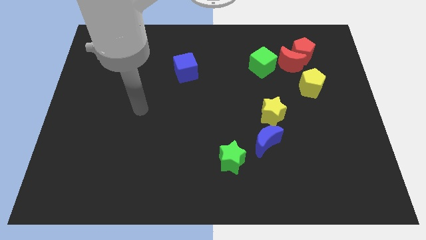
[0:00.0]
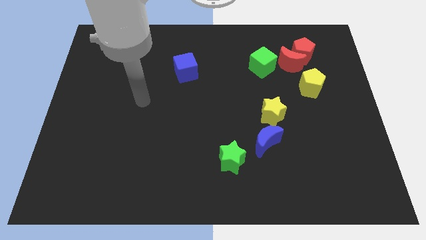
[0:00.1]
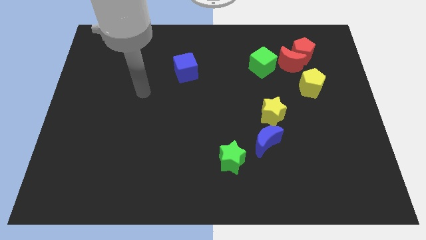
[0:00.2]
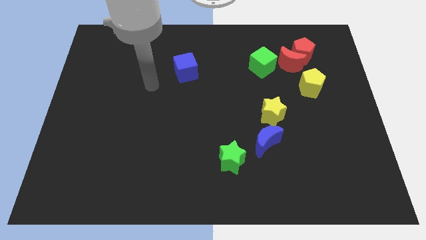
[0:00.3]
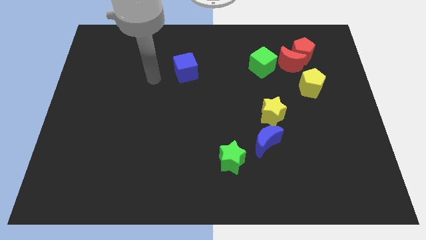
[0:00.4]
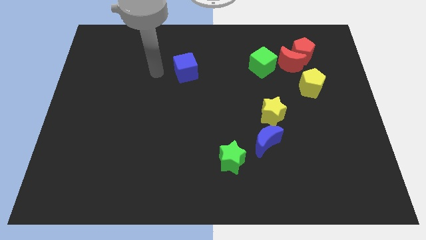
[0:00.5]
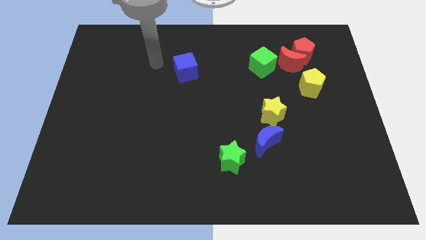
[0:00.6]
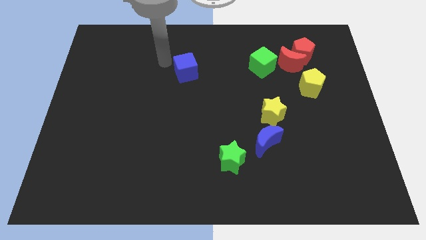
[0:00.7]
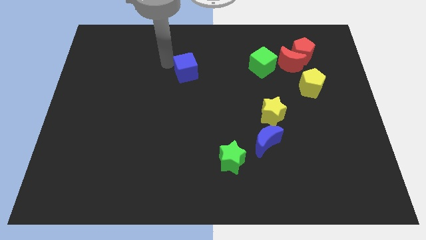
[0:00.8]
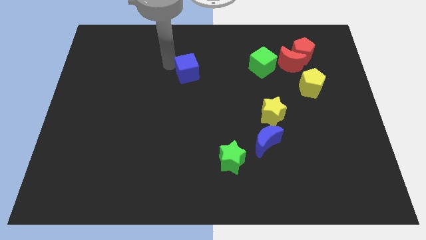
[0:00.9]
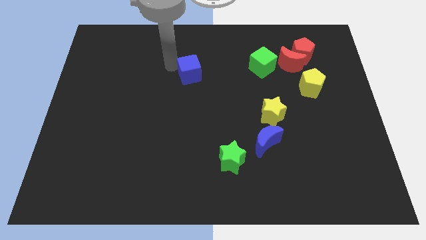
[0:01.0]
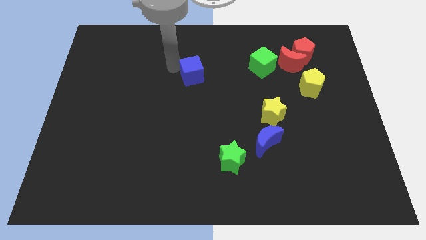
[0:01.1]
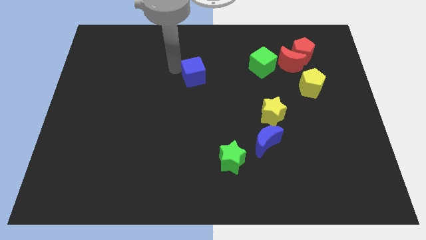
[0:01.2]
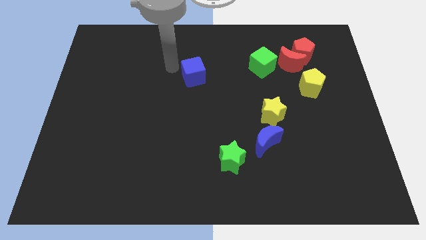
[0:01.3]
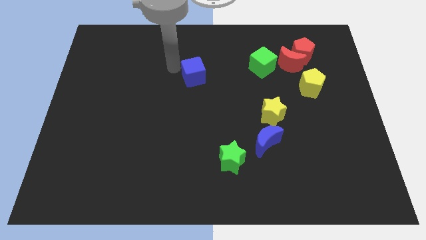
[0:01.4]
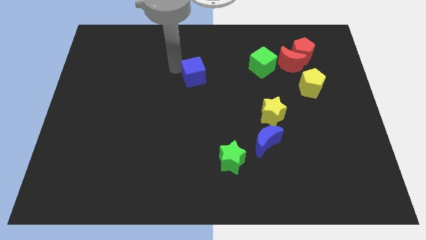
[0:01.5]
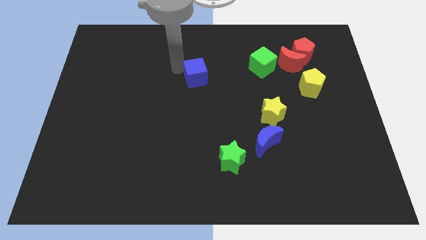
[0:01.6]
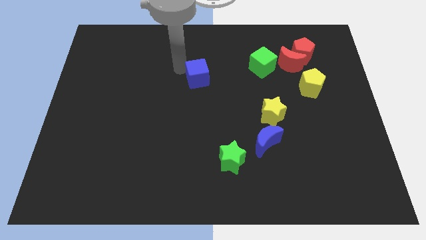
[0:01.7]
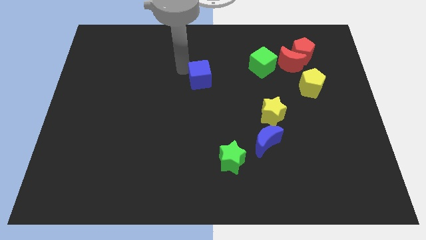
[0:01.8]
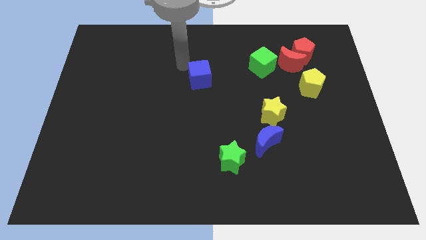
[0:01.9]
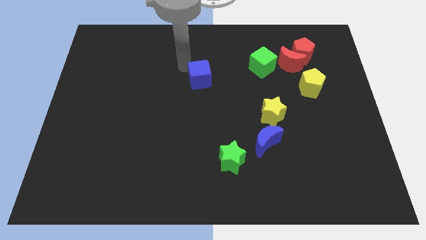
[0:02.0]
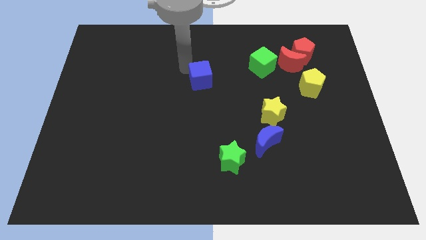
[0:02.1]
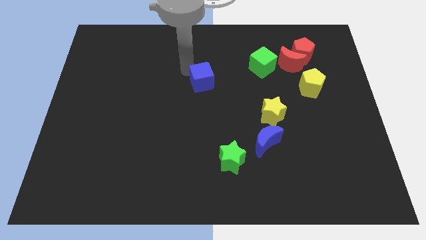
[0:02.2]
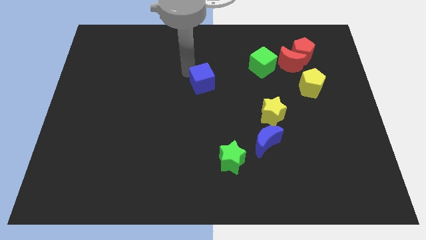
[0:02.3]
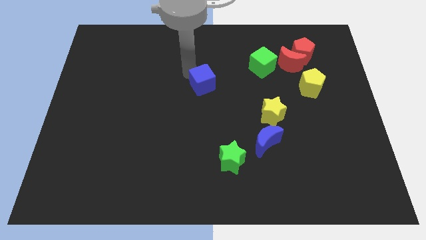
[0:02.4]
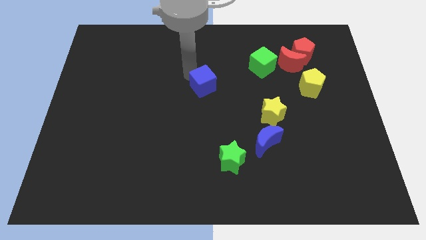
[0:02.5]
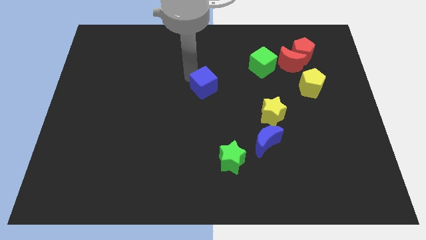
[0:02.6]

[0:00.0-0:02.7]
push the blue cube a little diagonally down and right

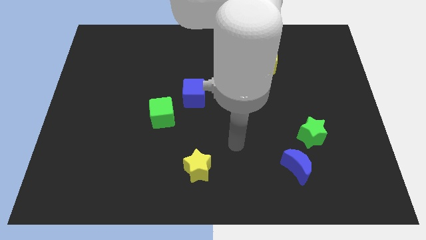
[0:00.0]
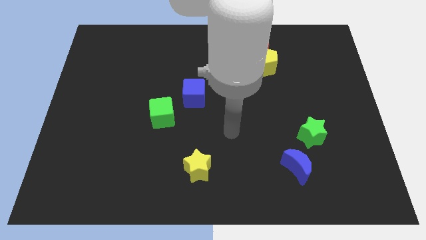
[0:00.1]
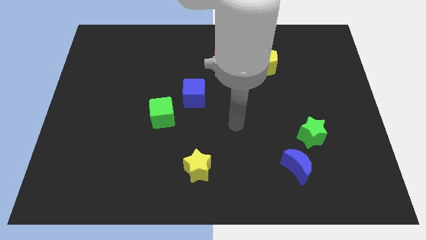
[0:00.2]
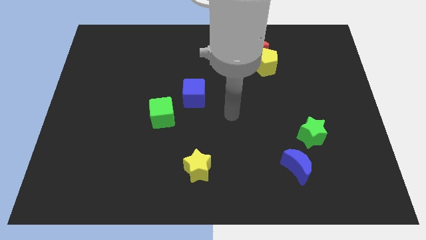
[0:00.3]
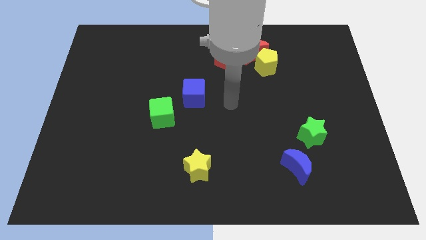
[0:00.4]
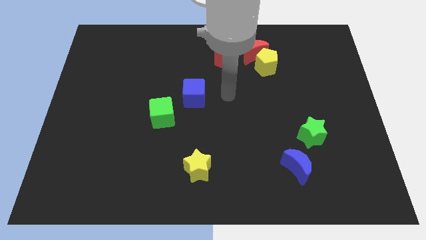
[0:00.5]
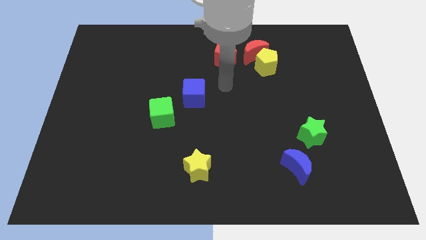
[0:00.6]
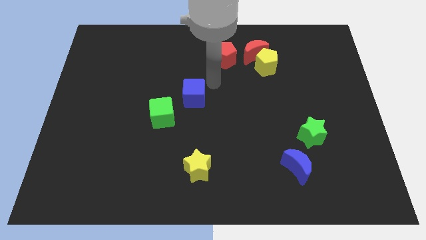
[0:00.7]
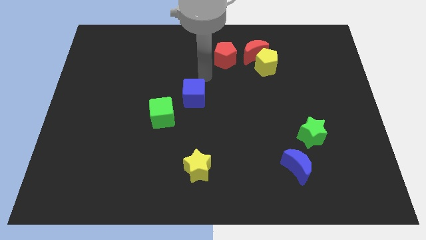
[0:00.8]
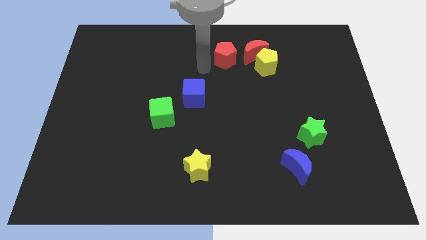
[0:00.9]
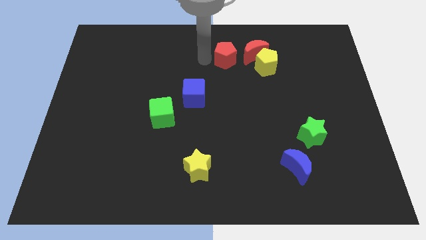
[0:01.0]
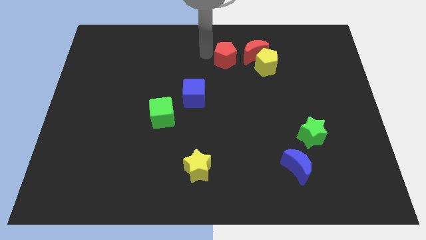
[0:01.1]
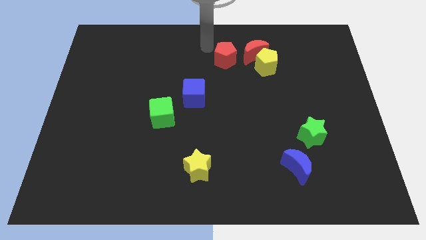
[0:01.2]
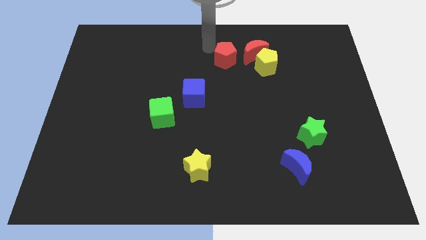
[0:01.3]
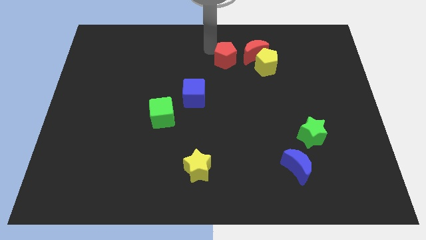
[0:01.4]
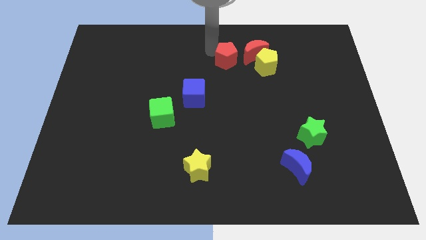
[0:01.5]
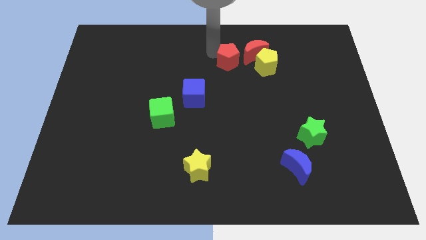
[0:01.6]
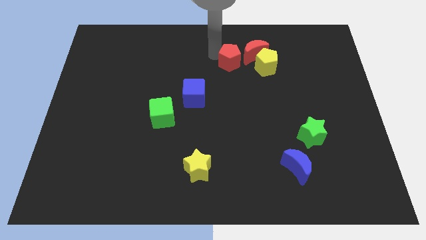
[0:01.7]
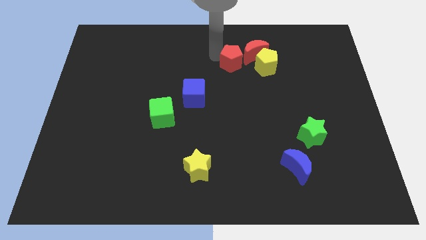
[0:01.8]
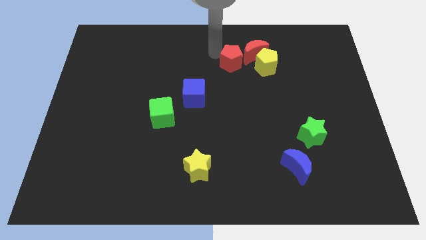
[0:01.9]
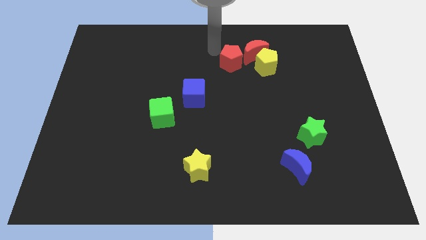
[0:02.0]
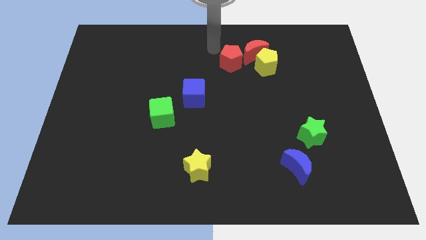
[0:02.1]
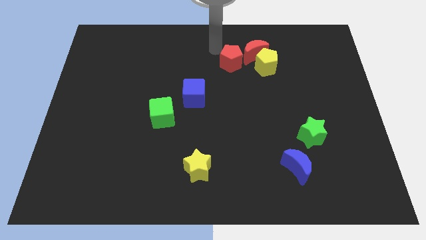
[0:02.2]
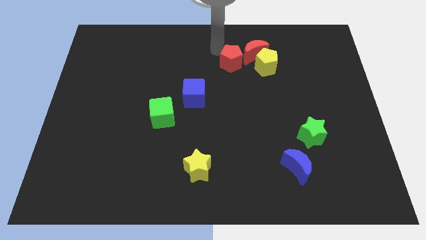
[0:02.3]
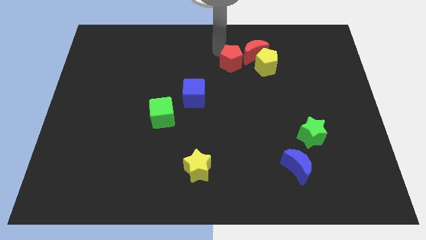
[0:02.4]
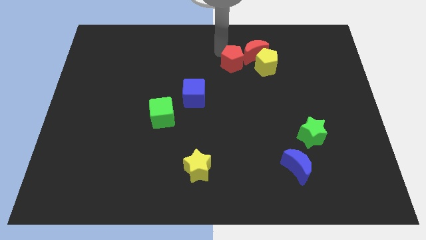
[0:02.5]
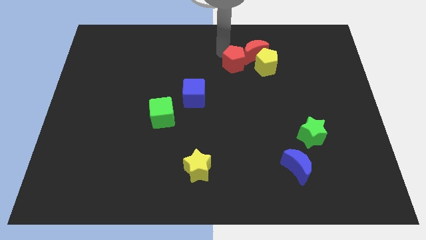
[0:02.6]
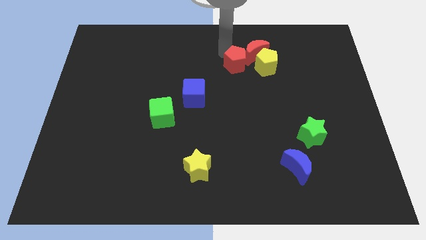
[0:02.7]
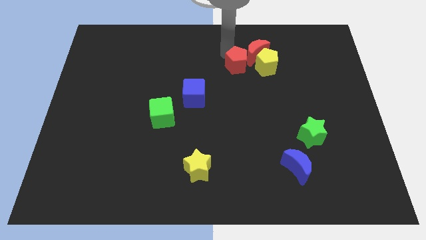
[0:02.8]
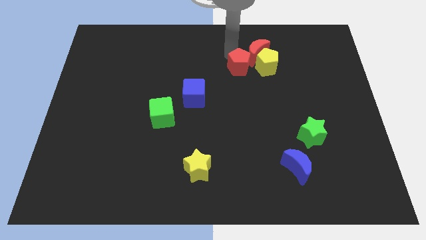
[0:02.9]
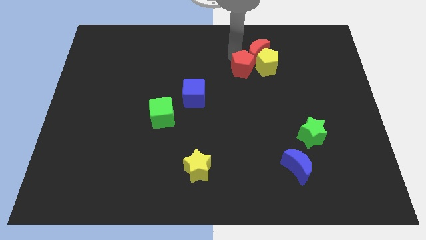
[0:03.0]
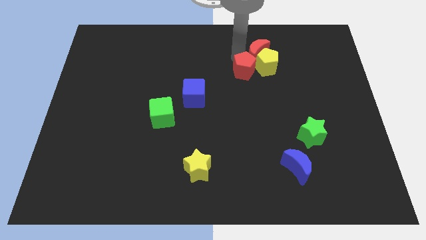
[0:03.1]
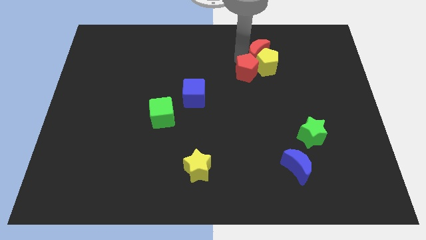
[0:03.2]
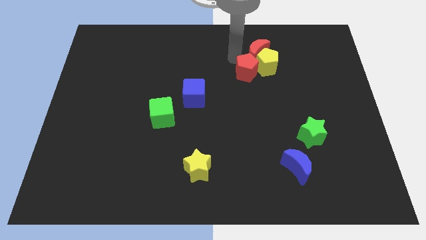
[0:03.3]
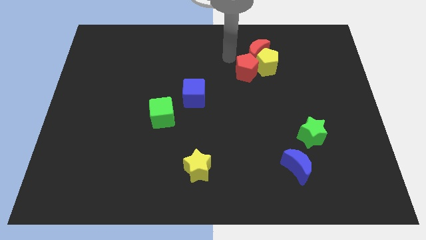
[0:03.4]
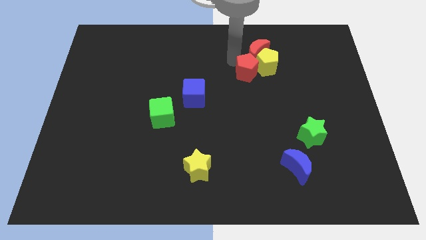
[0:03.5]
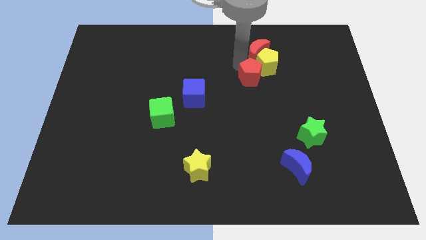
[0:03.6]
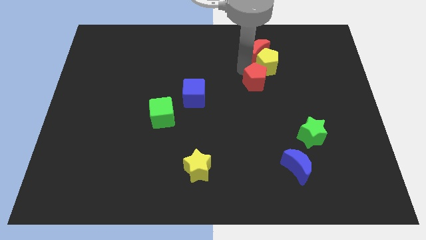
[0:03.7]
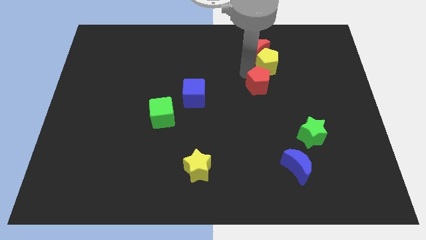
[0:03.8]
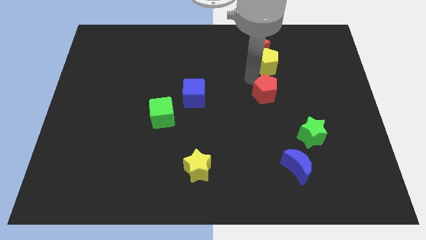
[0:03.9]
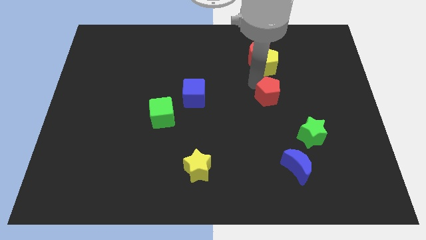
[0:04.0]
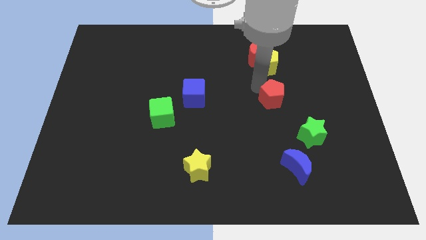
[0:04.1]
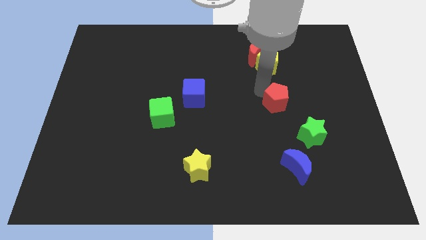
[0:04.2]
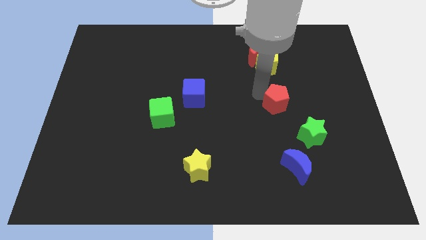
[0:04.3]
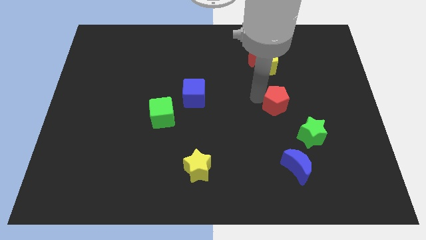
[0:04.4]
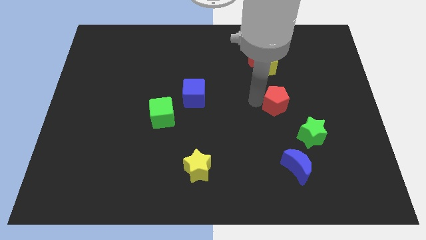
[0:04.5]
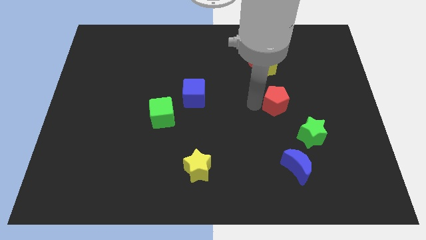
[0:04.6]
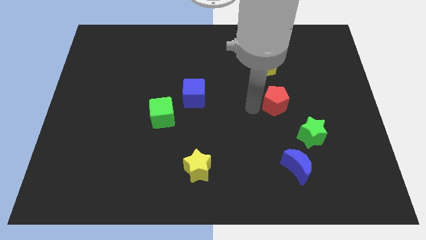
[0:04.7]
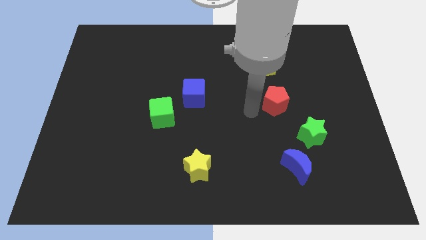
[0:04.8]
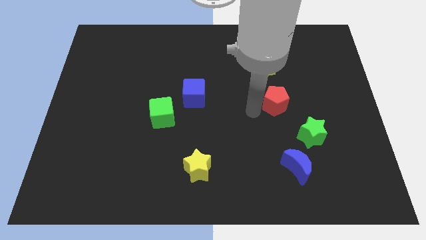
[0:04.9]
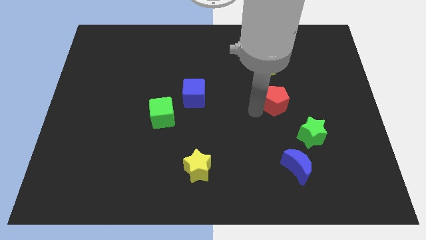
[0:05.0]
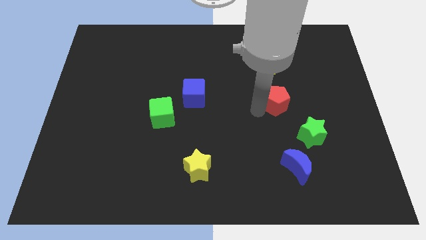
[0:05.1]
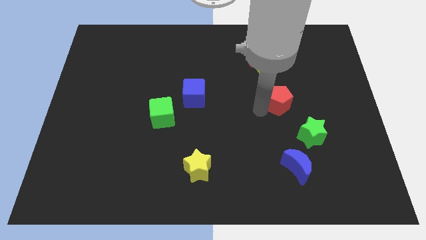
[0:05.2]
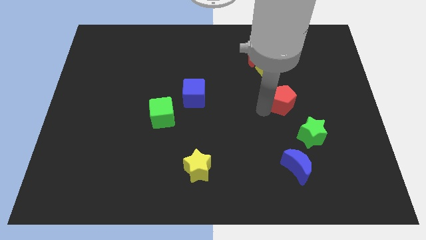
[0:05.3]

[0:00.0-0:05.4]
push the red pentagon diagonally down and to the right
